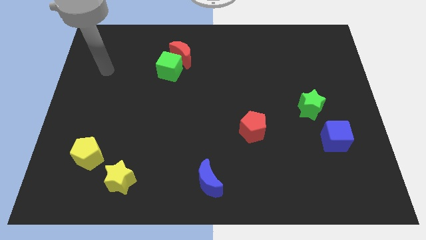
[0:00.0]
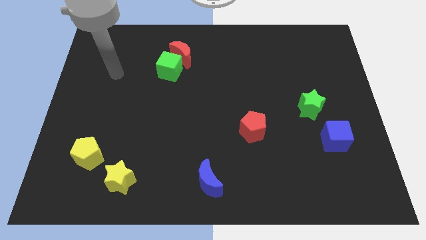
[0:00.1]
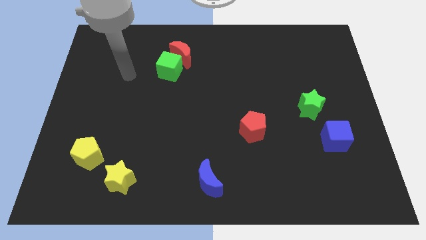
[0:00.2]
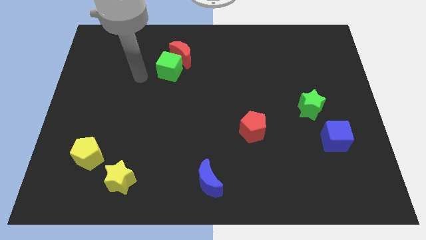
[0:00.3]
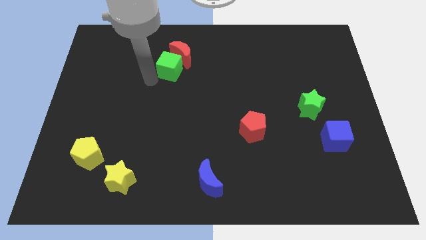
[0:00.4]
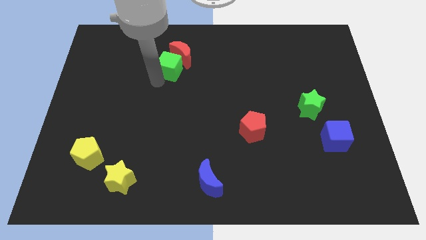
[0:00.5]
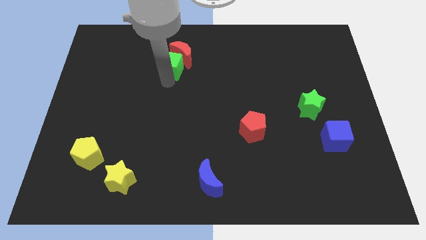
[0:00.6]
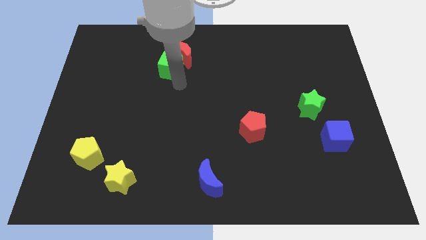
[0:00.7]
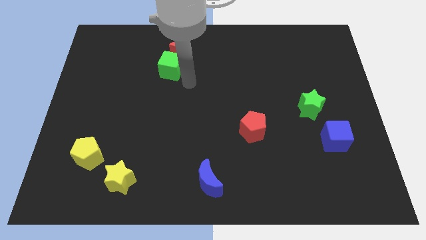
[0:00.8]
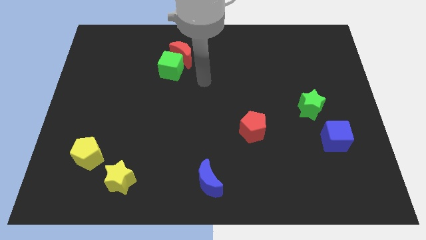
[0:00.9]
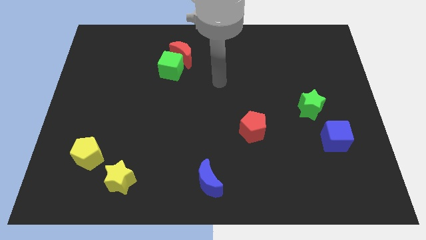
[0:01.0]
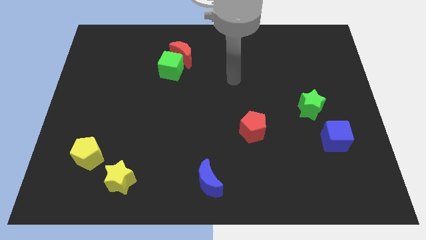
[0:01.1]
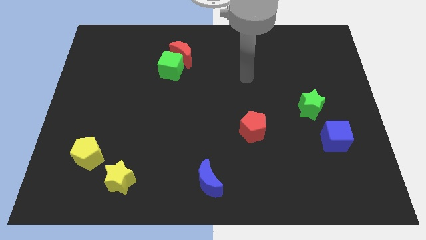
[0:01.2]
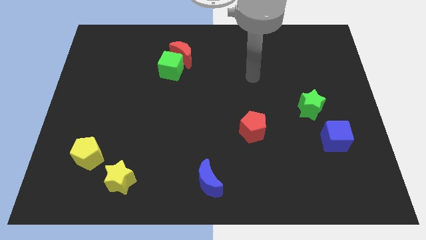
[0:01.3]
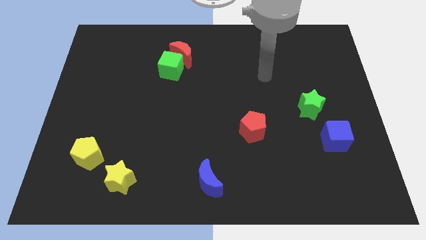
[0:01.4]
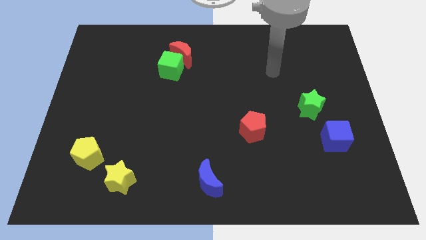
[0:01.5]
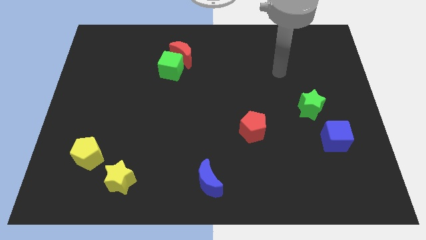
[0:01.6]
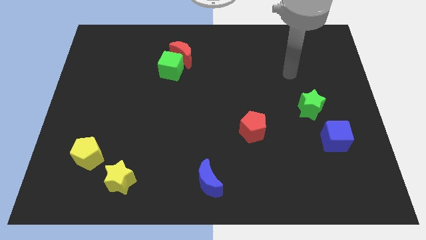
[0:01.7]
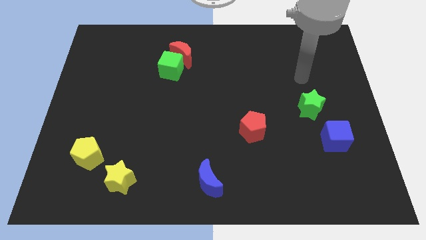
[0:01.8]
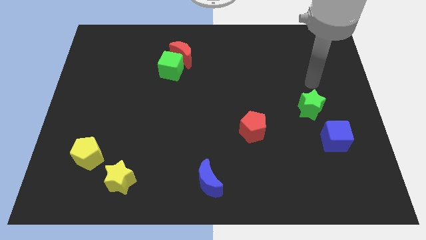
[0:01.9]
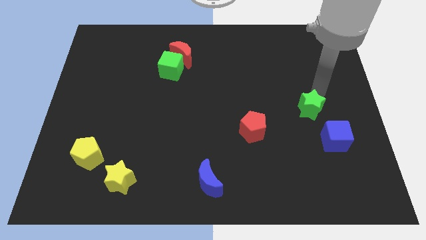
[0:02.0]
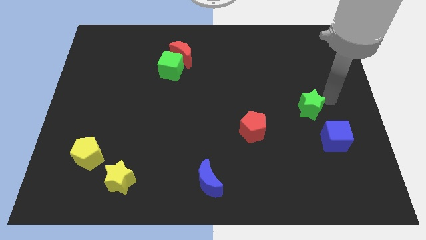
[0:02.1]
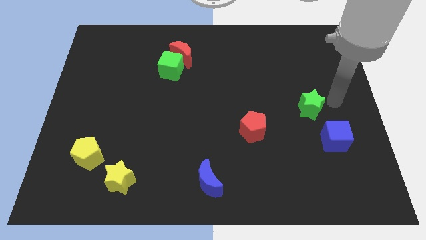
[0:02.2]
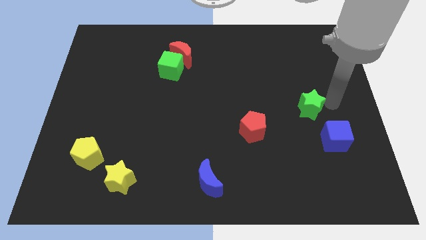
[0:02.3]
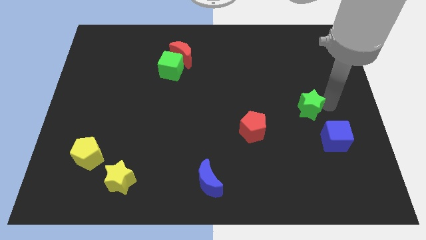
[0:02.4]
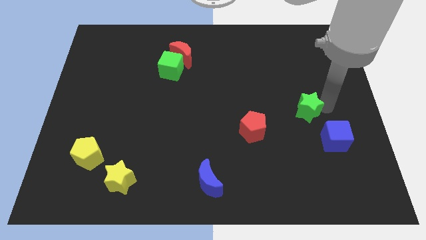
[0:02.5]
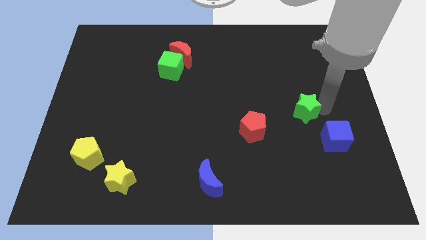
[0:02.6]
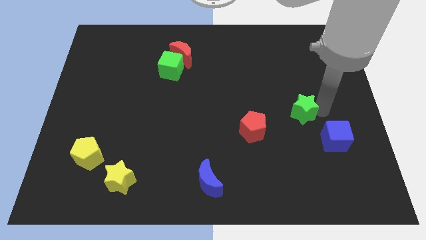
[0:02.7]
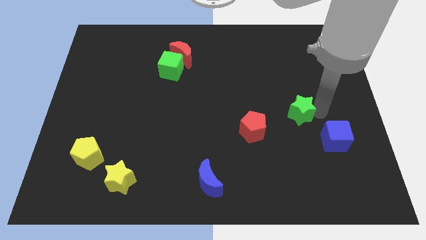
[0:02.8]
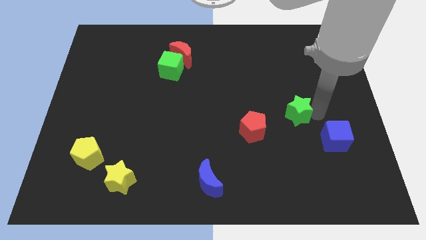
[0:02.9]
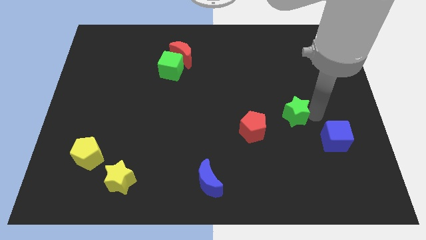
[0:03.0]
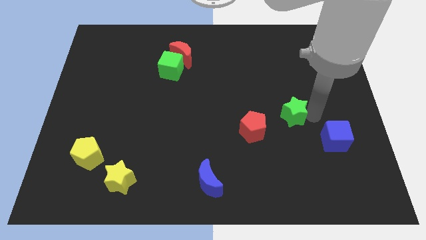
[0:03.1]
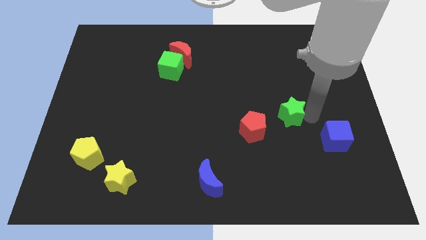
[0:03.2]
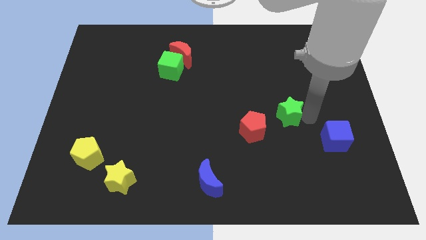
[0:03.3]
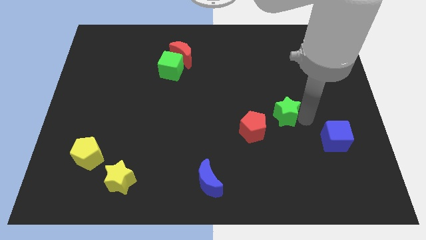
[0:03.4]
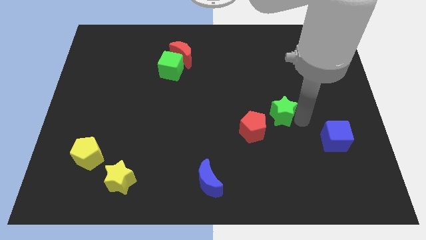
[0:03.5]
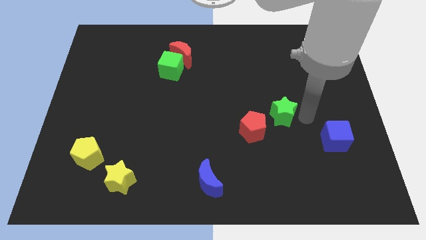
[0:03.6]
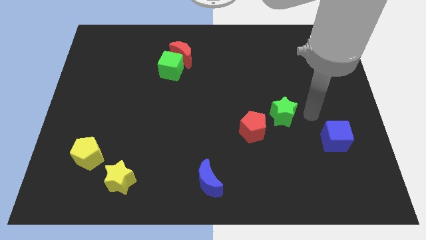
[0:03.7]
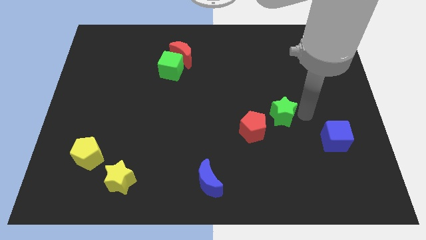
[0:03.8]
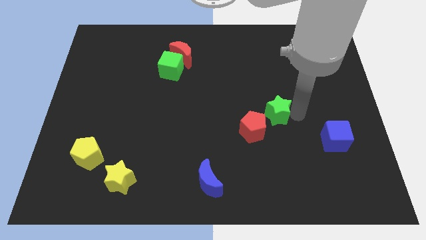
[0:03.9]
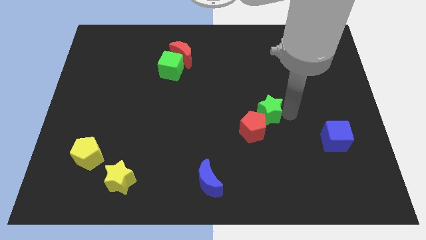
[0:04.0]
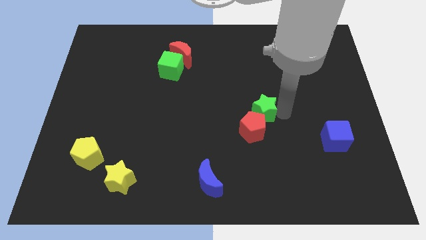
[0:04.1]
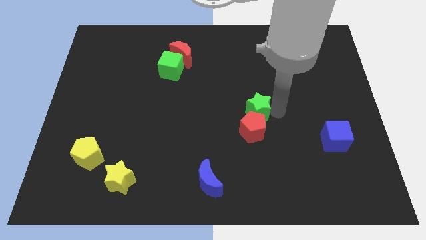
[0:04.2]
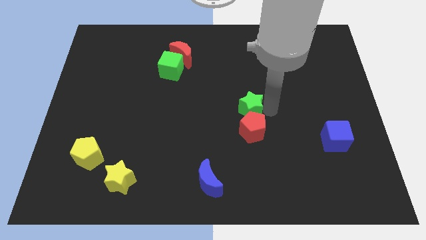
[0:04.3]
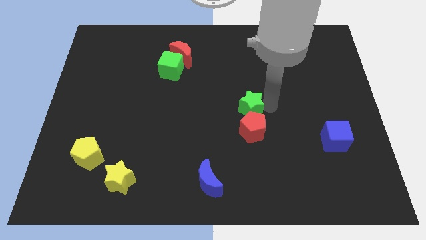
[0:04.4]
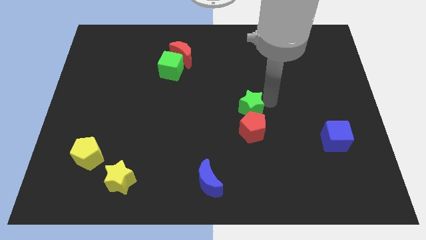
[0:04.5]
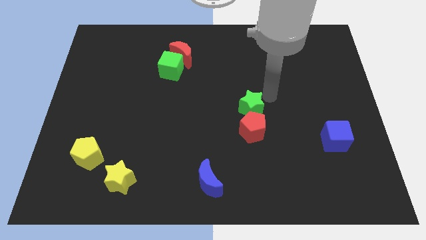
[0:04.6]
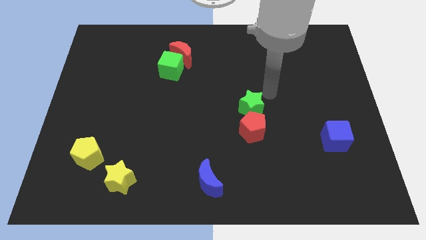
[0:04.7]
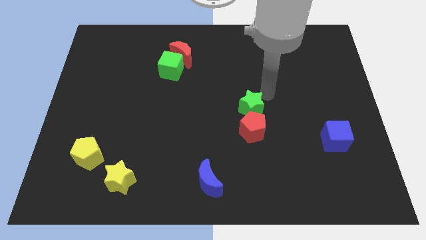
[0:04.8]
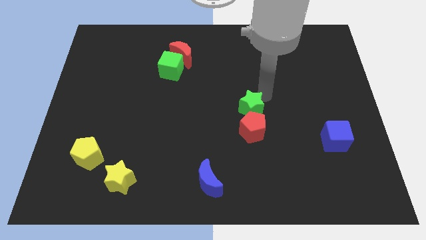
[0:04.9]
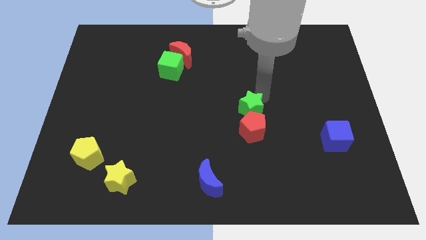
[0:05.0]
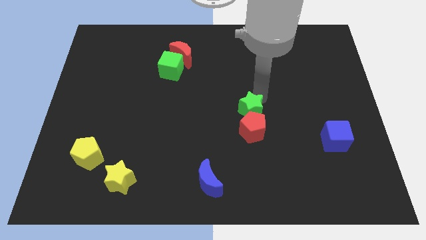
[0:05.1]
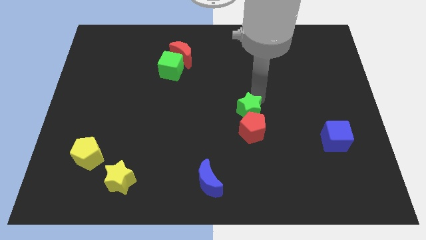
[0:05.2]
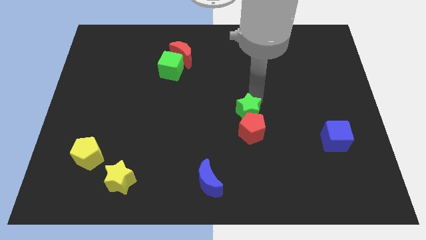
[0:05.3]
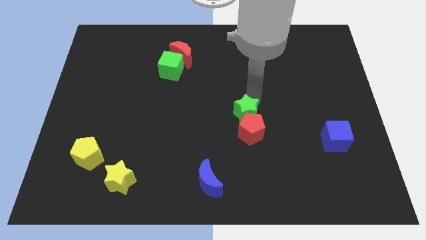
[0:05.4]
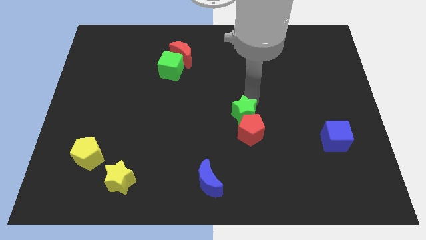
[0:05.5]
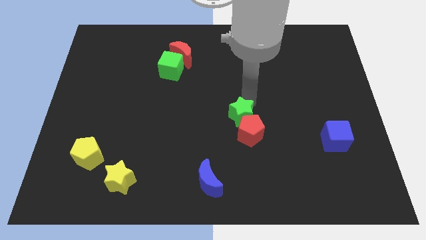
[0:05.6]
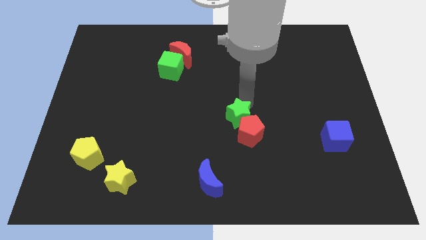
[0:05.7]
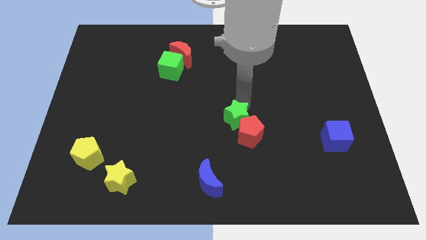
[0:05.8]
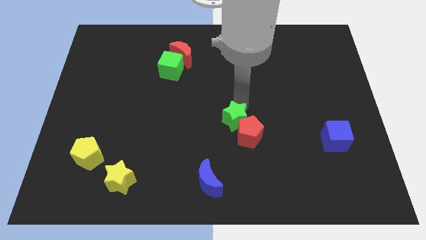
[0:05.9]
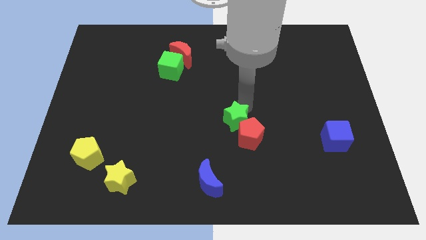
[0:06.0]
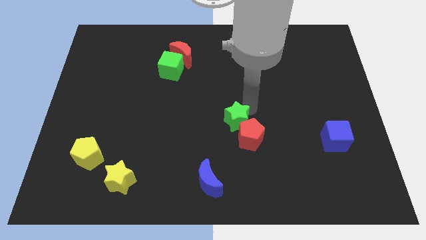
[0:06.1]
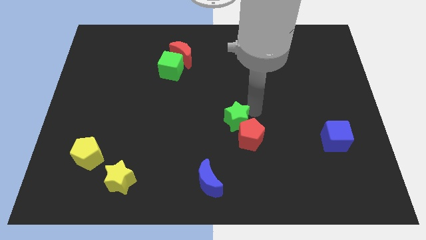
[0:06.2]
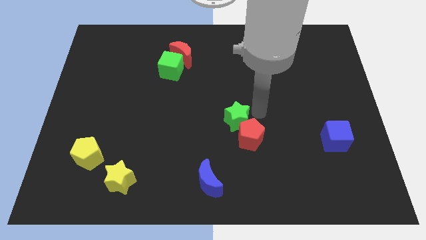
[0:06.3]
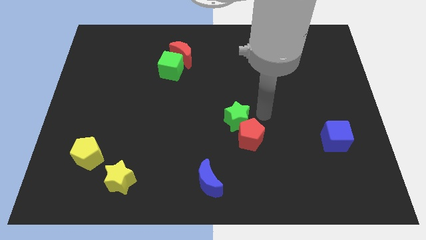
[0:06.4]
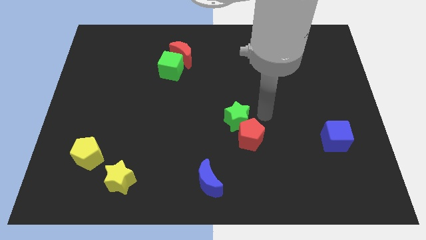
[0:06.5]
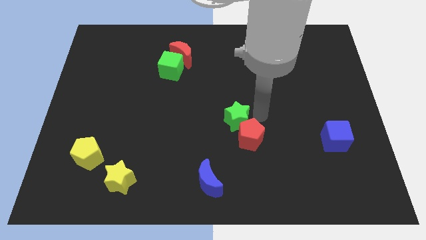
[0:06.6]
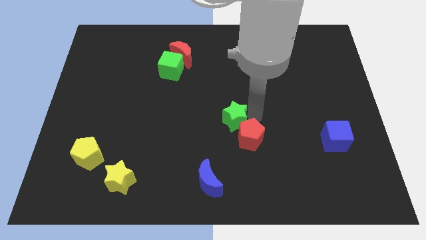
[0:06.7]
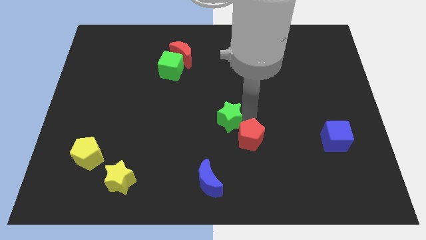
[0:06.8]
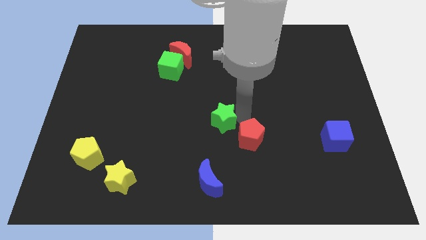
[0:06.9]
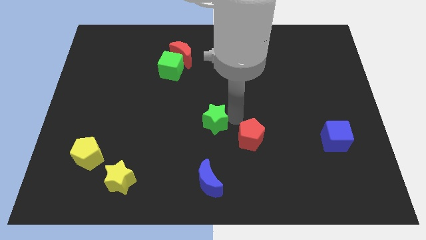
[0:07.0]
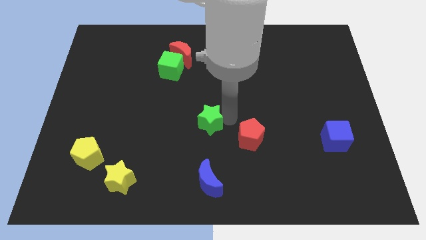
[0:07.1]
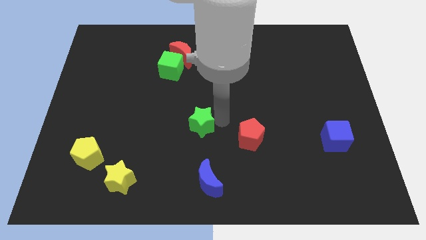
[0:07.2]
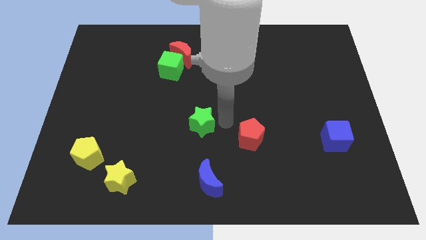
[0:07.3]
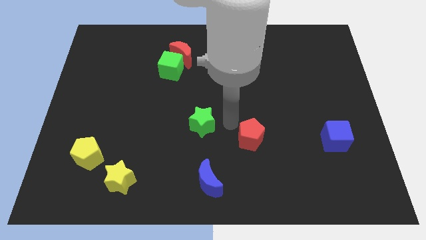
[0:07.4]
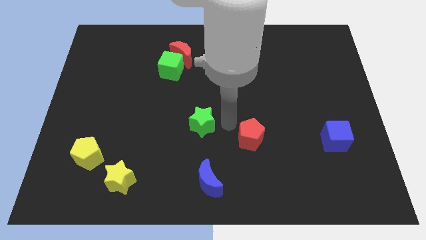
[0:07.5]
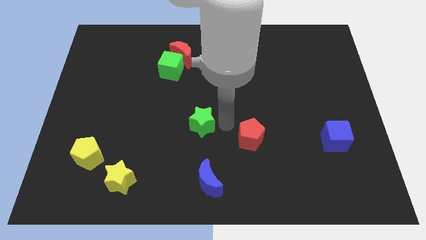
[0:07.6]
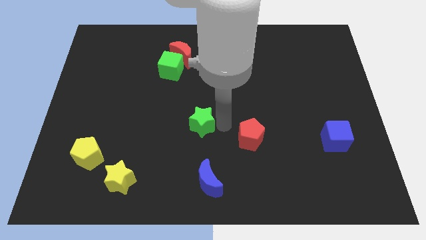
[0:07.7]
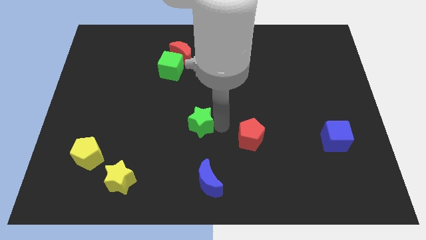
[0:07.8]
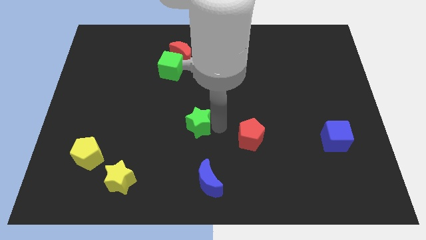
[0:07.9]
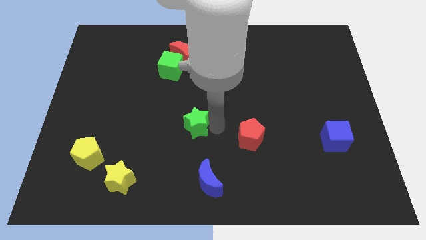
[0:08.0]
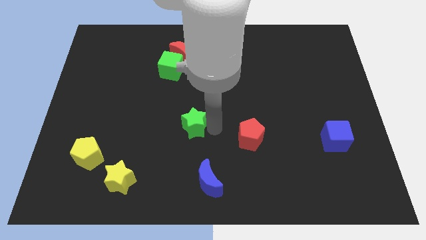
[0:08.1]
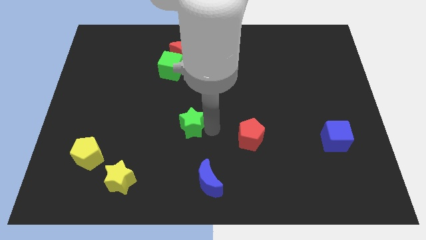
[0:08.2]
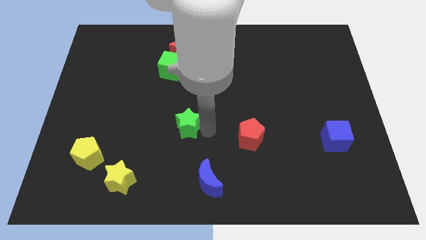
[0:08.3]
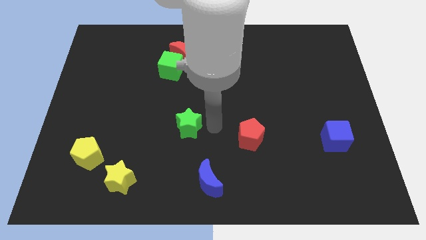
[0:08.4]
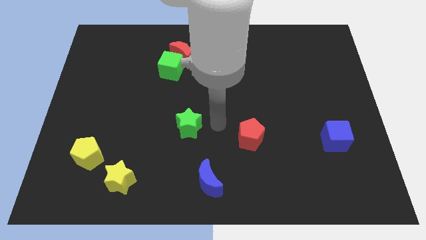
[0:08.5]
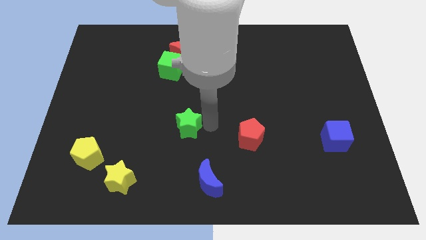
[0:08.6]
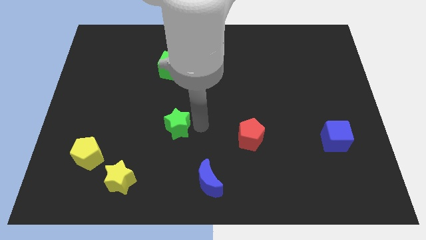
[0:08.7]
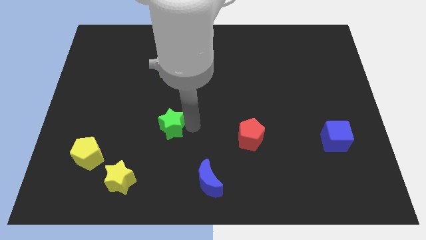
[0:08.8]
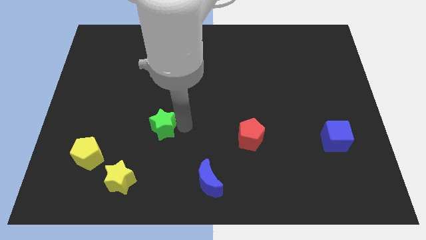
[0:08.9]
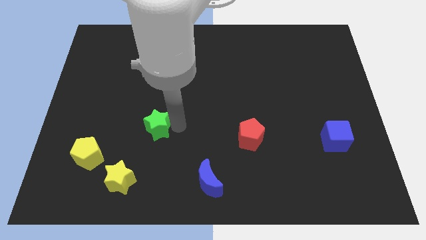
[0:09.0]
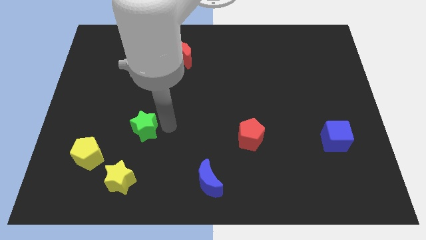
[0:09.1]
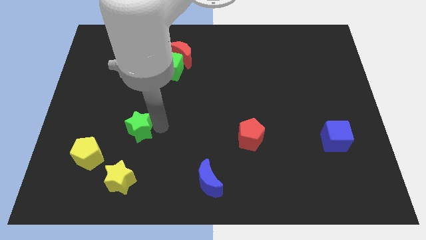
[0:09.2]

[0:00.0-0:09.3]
move the green star to the top right of the yellow pentagon
